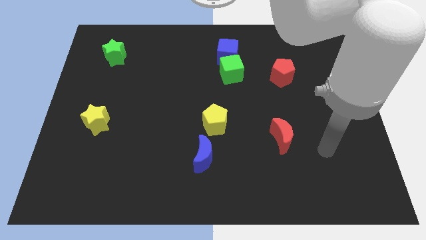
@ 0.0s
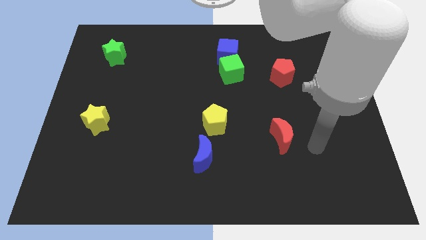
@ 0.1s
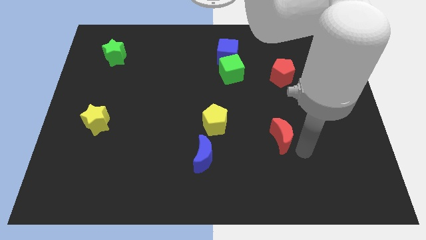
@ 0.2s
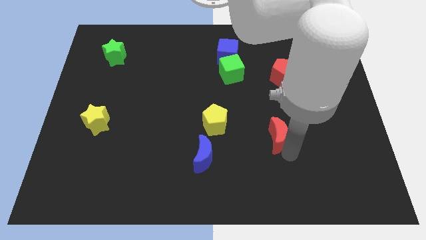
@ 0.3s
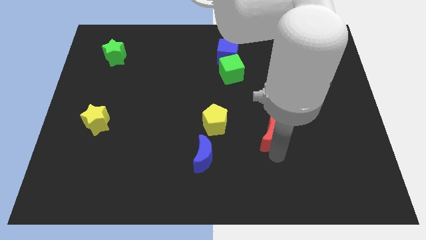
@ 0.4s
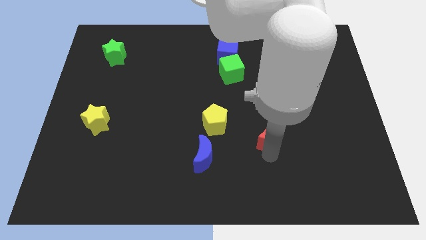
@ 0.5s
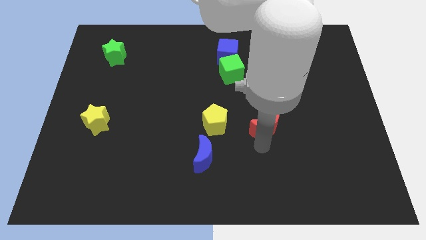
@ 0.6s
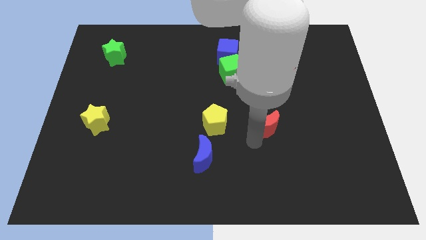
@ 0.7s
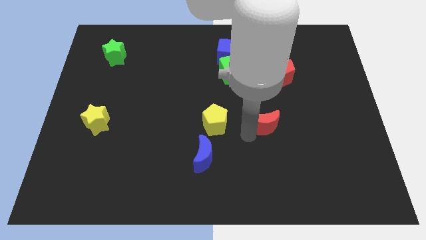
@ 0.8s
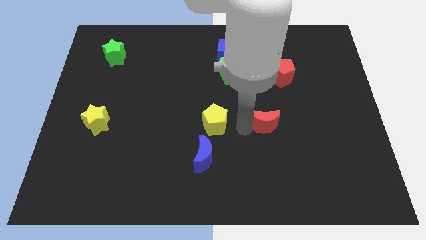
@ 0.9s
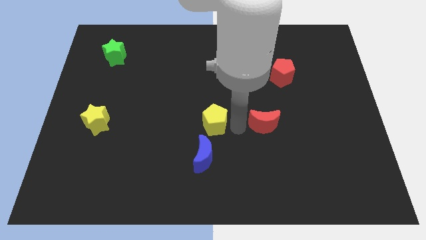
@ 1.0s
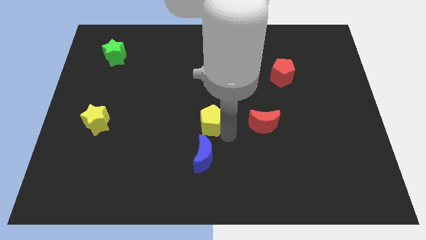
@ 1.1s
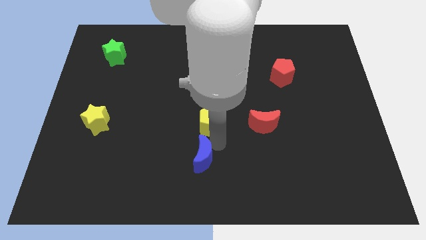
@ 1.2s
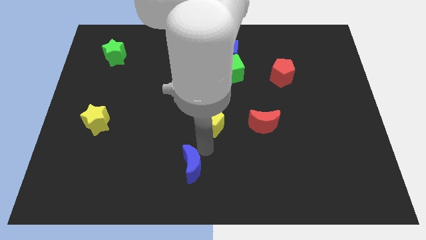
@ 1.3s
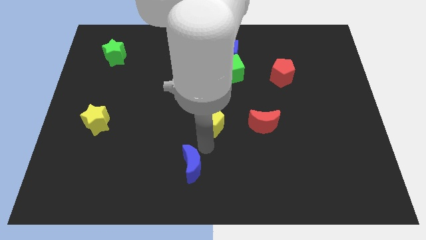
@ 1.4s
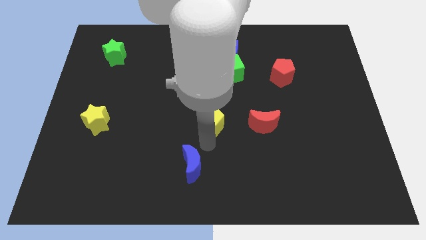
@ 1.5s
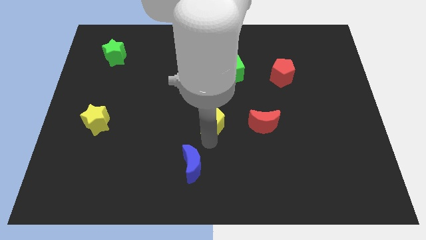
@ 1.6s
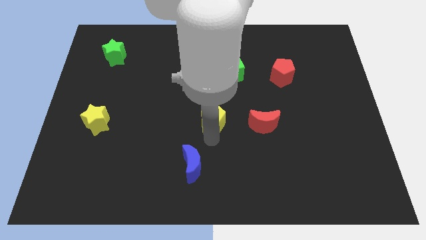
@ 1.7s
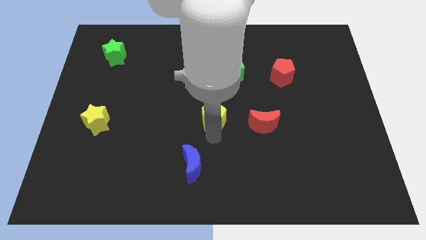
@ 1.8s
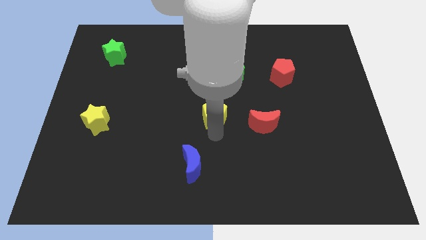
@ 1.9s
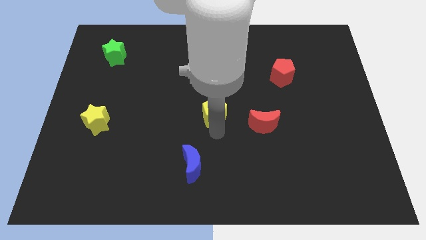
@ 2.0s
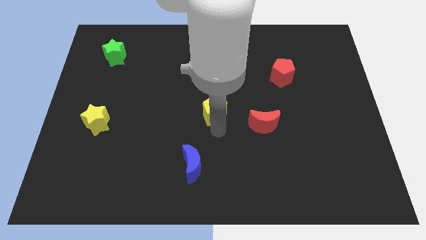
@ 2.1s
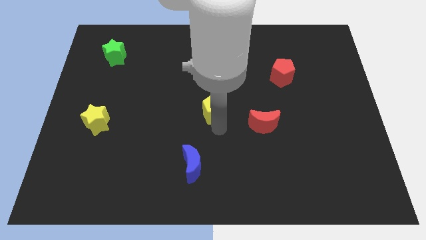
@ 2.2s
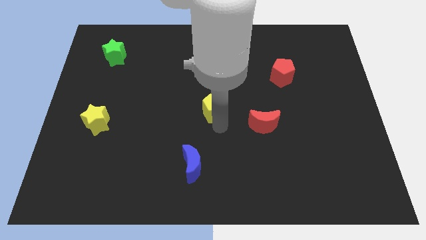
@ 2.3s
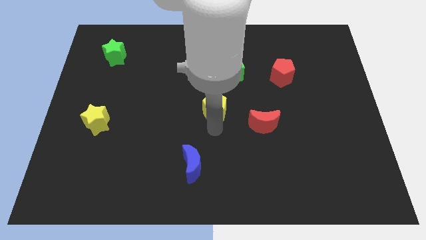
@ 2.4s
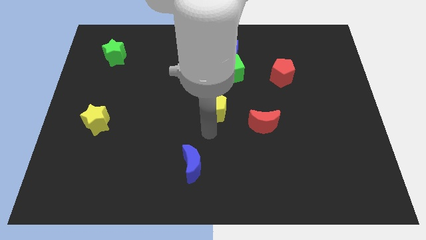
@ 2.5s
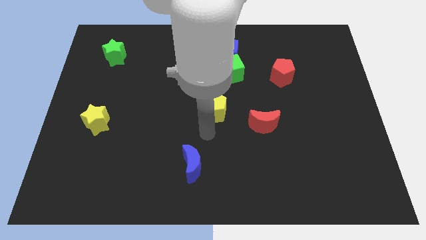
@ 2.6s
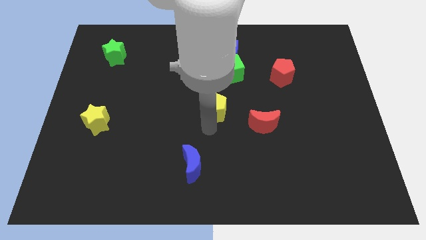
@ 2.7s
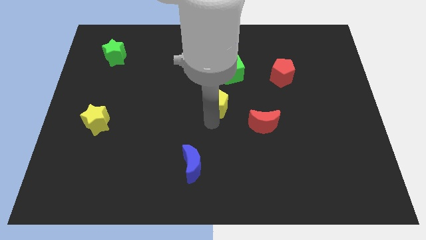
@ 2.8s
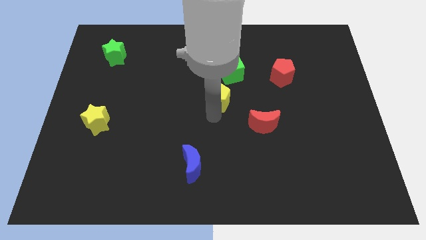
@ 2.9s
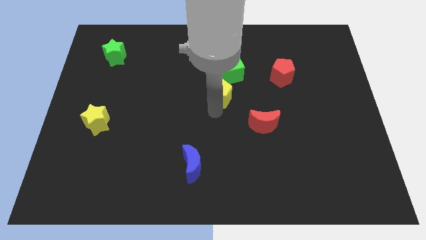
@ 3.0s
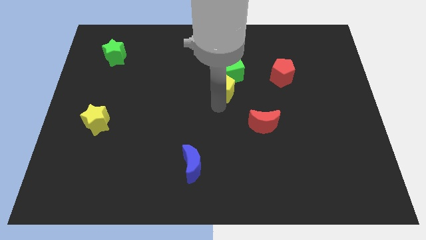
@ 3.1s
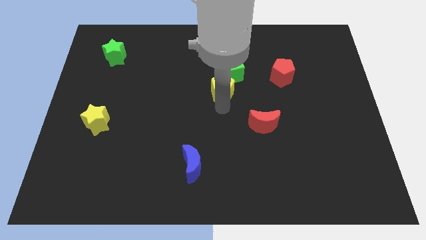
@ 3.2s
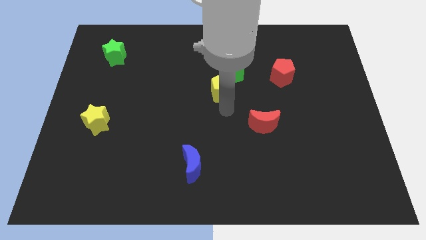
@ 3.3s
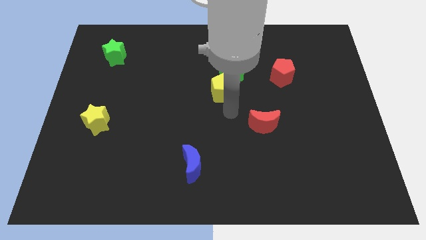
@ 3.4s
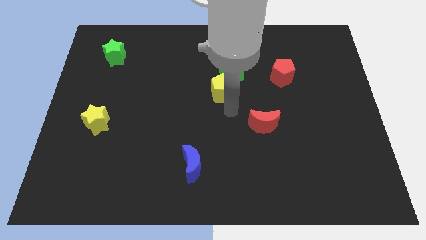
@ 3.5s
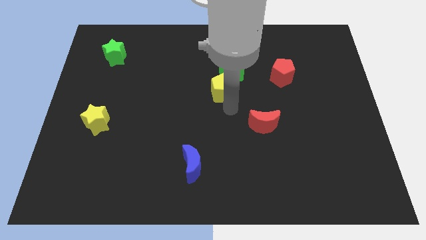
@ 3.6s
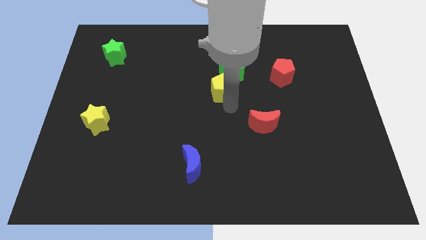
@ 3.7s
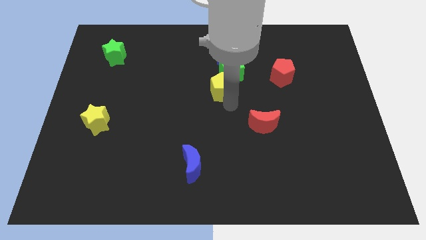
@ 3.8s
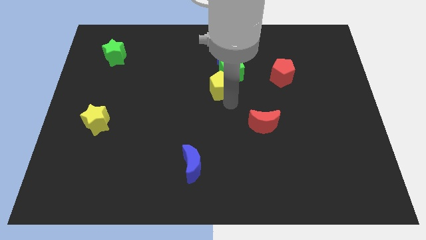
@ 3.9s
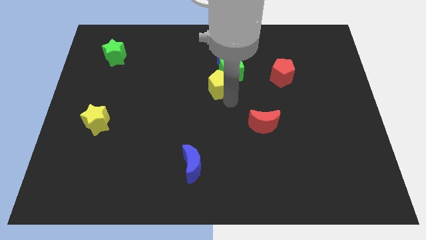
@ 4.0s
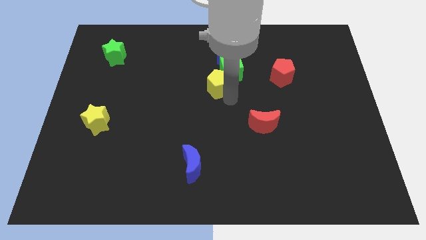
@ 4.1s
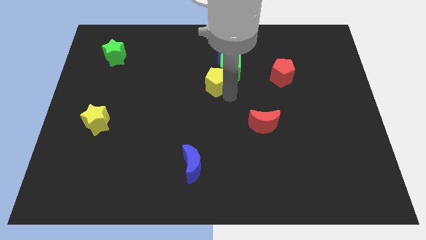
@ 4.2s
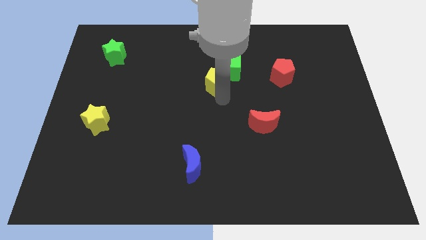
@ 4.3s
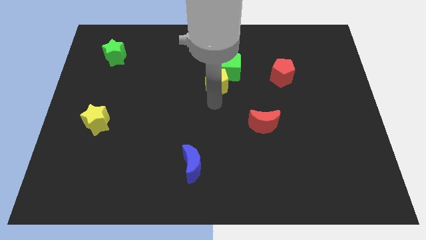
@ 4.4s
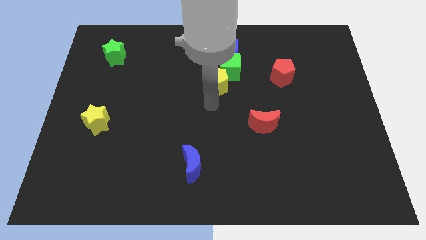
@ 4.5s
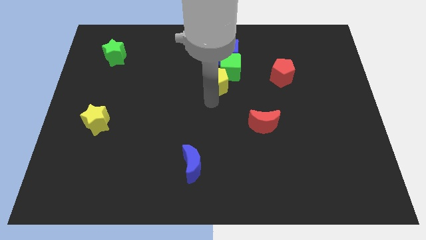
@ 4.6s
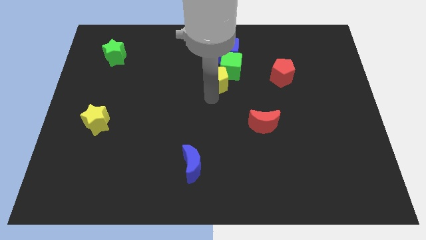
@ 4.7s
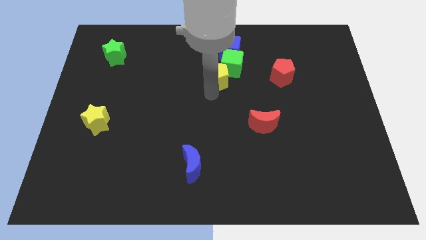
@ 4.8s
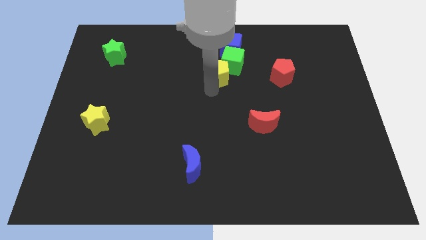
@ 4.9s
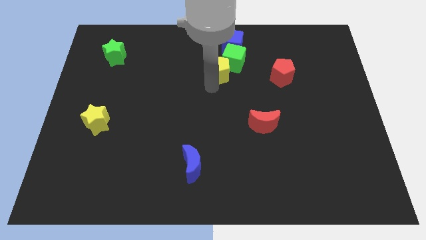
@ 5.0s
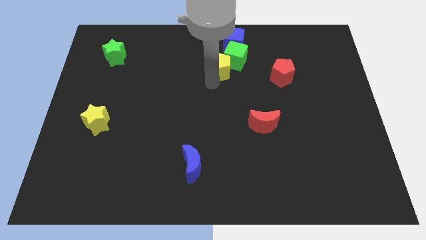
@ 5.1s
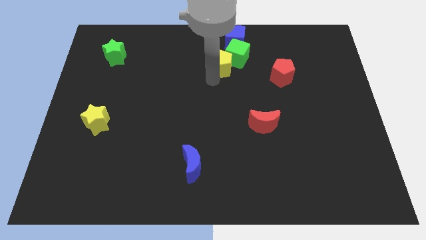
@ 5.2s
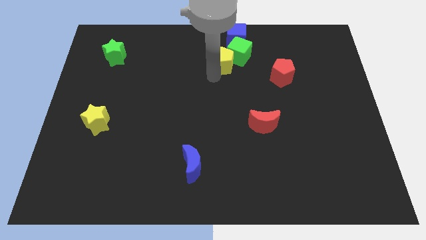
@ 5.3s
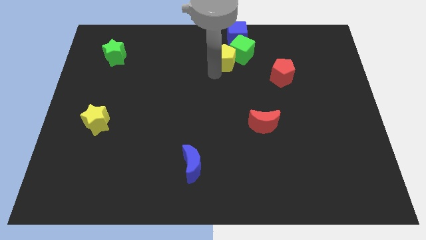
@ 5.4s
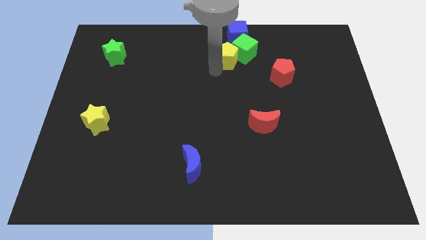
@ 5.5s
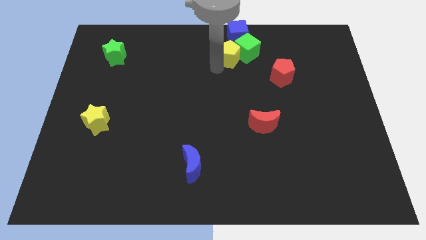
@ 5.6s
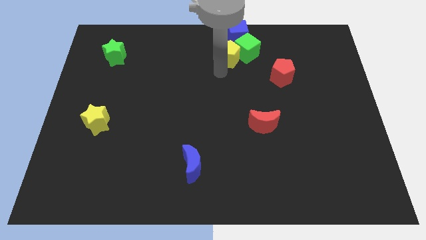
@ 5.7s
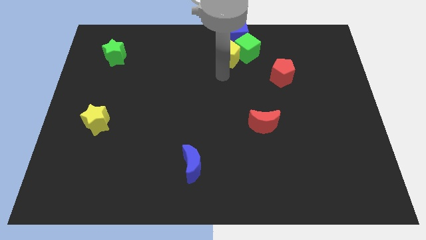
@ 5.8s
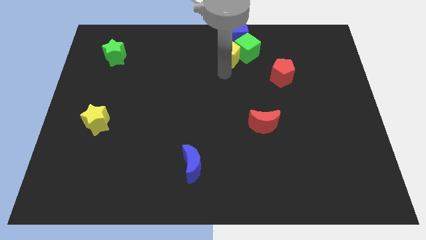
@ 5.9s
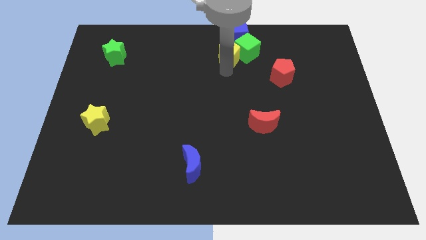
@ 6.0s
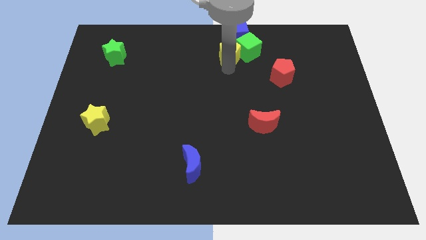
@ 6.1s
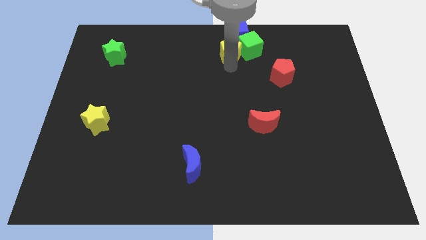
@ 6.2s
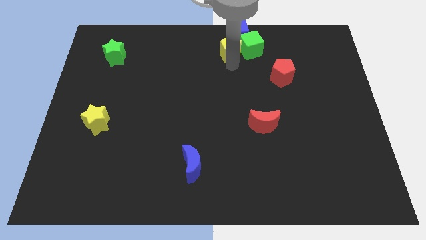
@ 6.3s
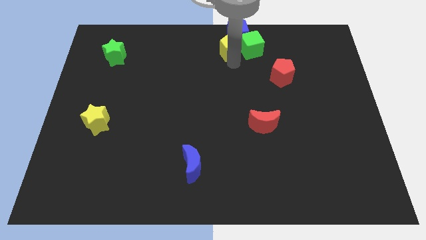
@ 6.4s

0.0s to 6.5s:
put the yellow pentagon towards the blue cube

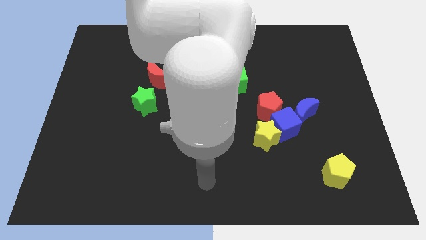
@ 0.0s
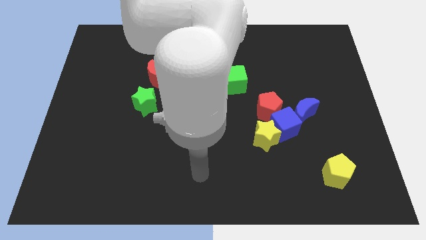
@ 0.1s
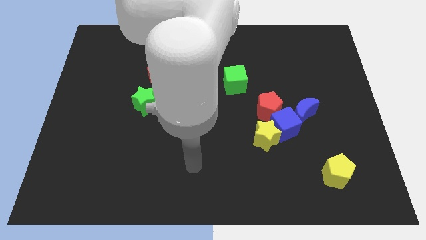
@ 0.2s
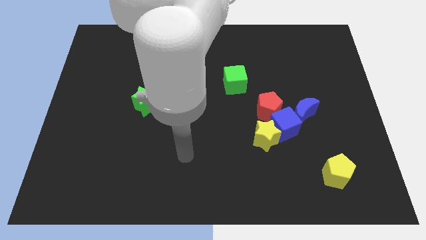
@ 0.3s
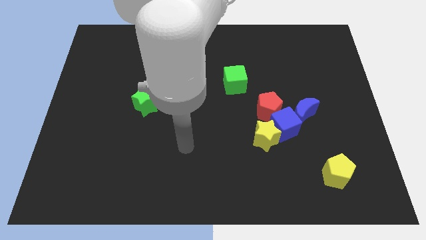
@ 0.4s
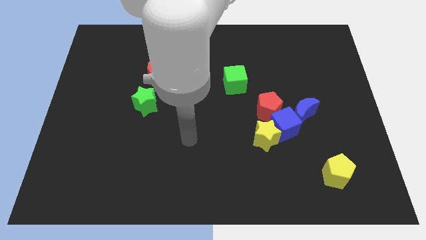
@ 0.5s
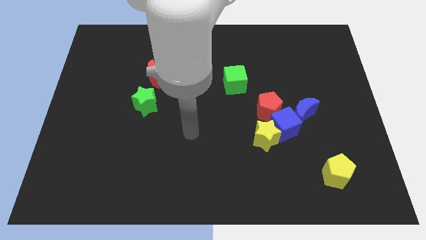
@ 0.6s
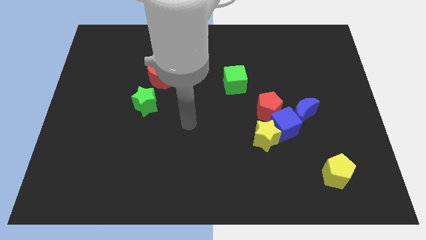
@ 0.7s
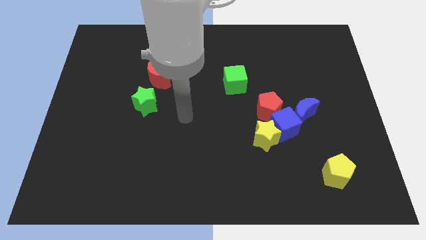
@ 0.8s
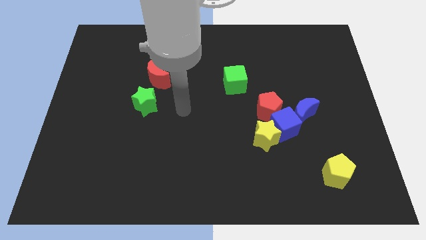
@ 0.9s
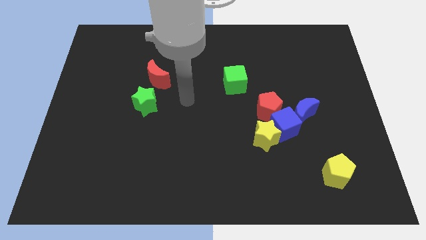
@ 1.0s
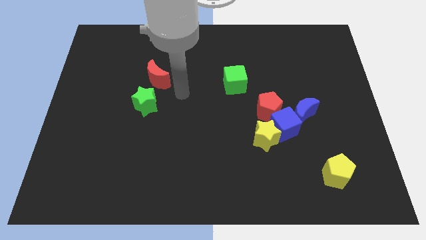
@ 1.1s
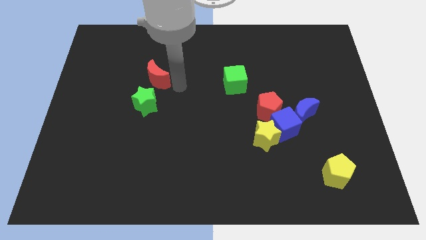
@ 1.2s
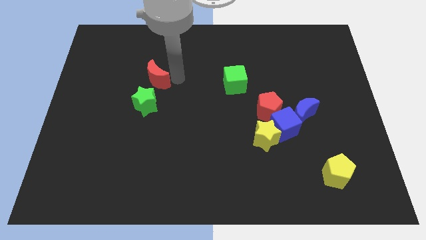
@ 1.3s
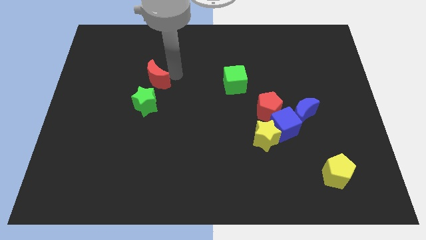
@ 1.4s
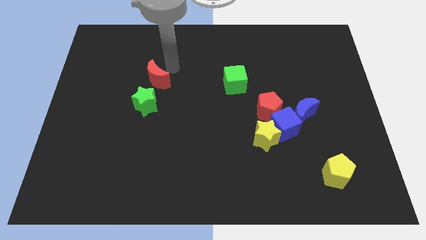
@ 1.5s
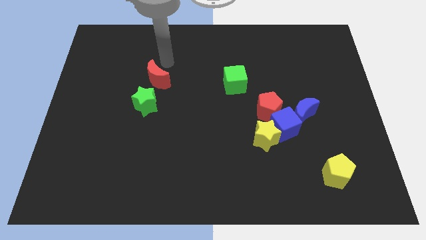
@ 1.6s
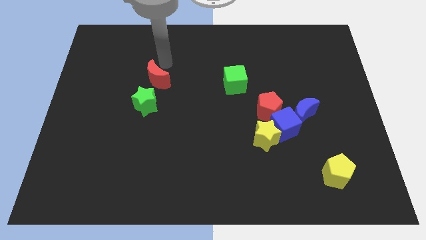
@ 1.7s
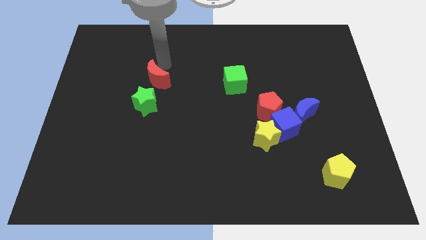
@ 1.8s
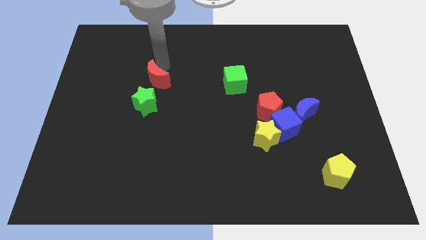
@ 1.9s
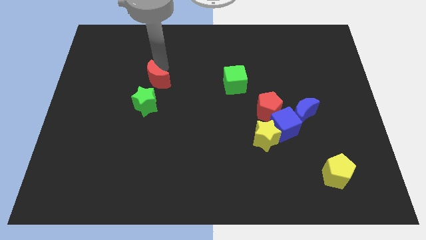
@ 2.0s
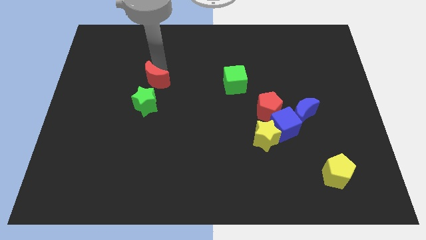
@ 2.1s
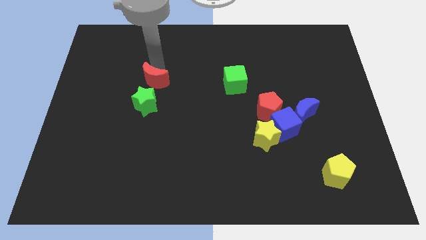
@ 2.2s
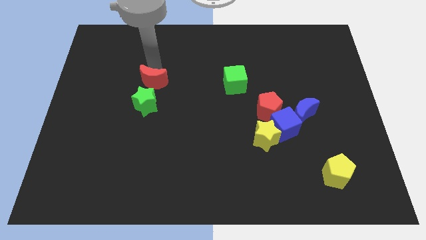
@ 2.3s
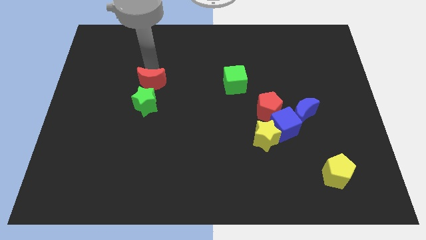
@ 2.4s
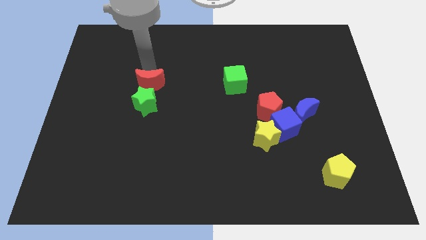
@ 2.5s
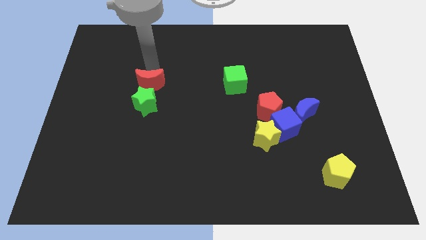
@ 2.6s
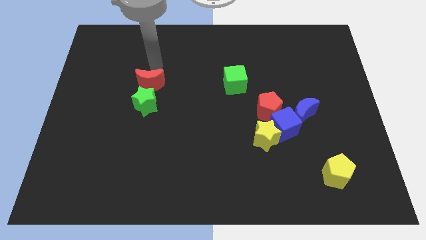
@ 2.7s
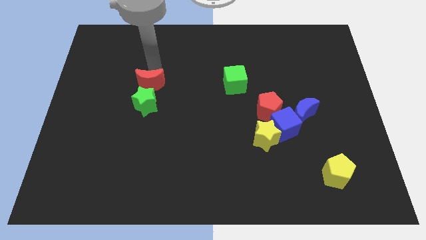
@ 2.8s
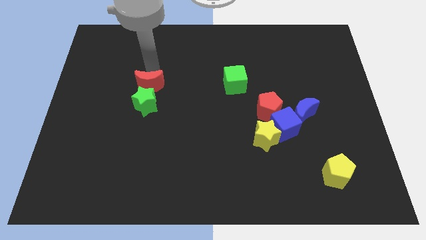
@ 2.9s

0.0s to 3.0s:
push the red moon close to the green star
